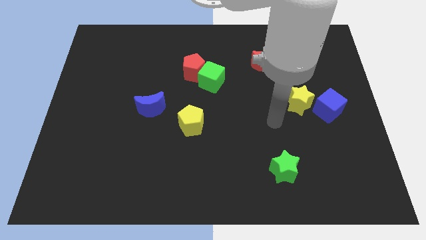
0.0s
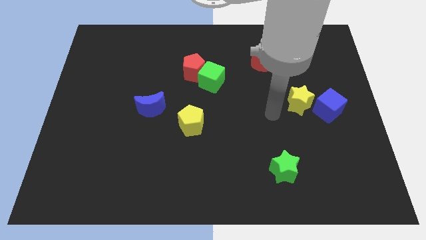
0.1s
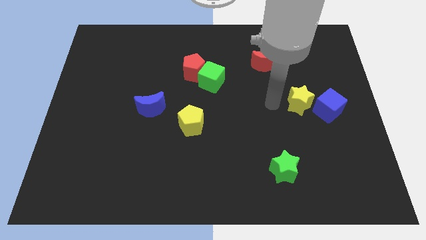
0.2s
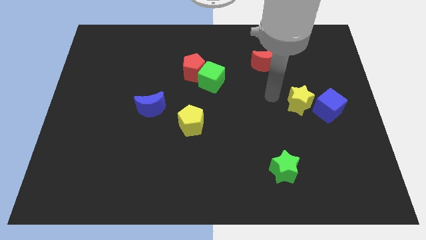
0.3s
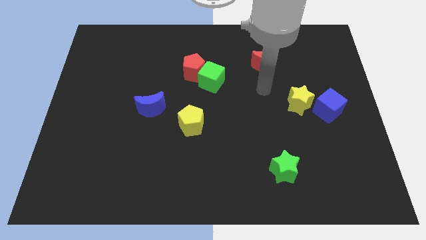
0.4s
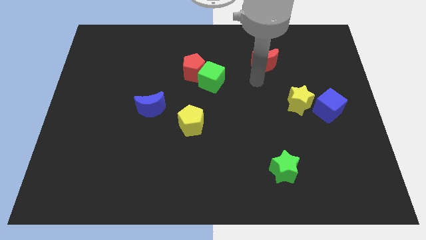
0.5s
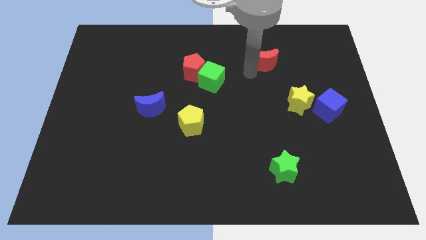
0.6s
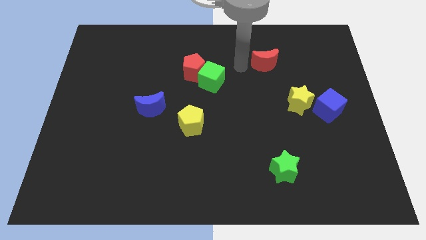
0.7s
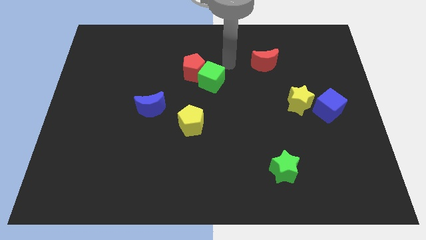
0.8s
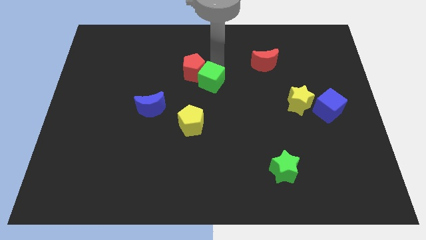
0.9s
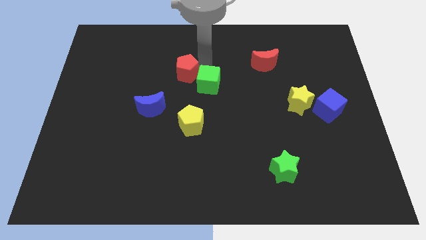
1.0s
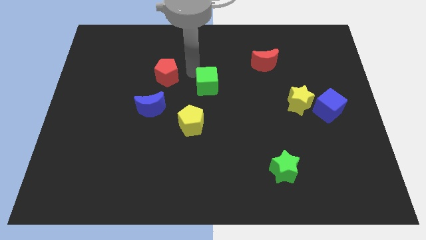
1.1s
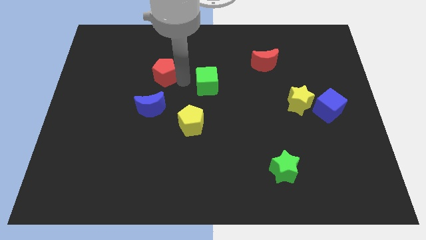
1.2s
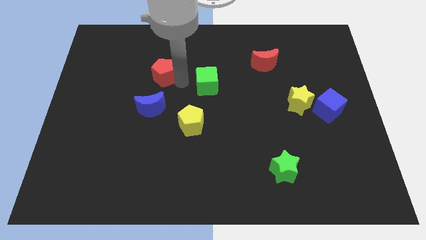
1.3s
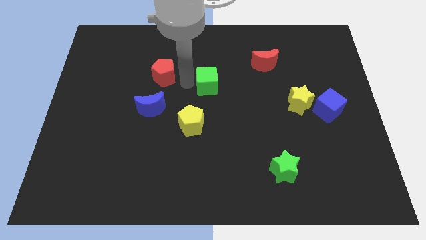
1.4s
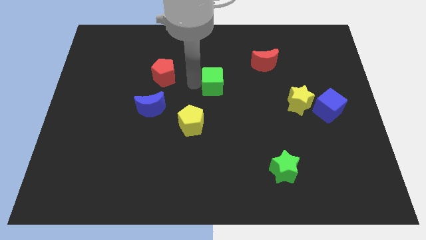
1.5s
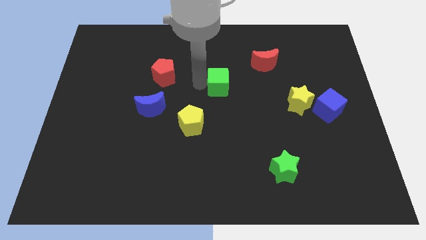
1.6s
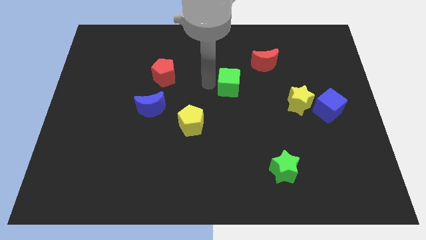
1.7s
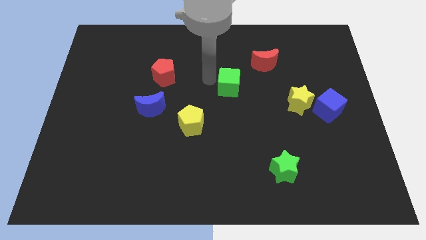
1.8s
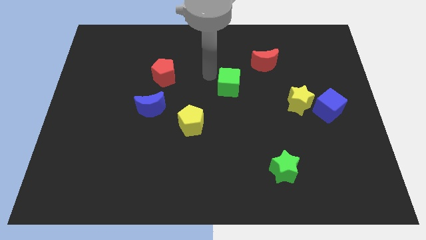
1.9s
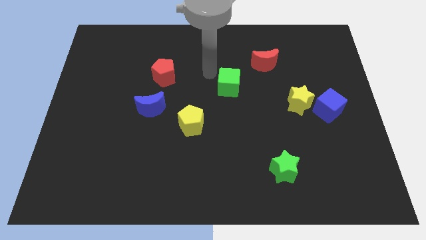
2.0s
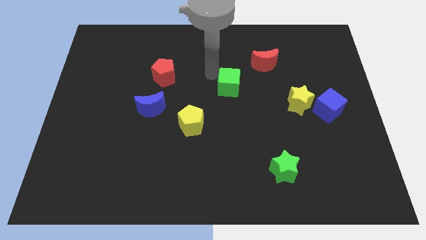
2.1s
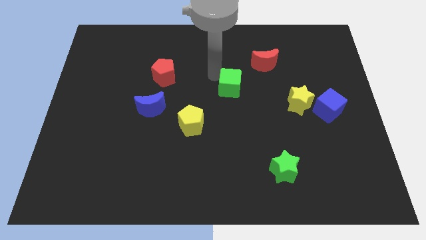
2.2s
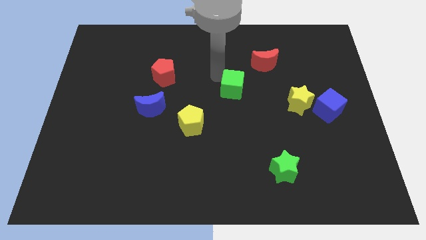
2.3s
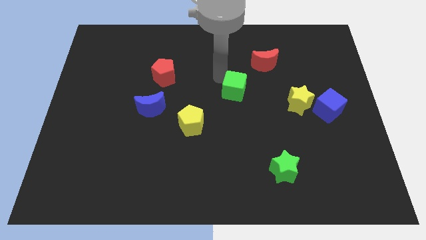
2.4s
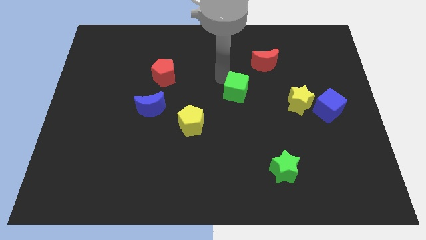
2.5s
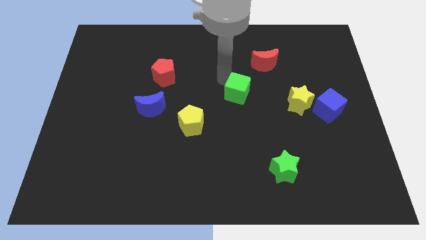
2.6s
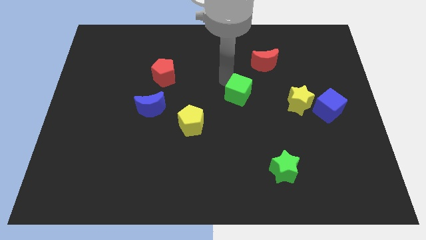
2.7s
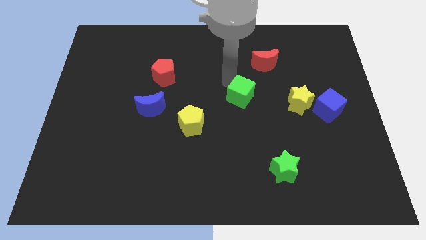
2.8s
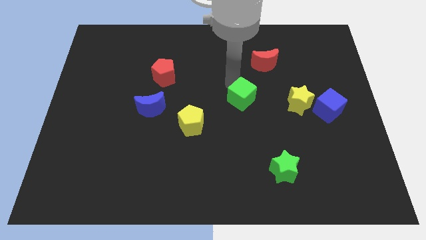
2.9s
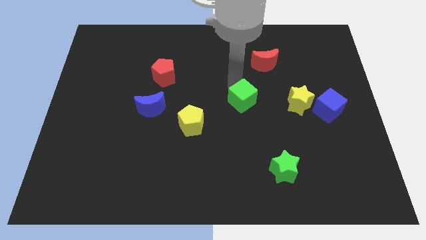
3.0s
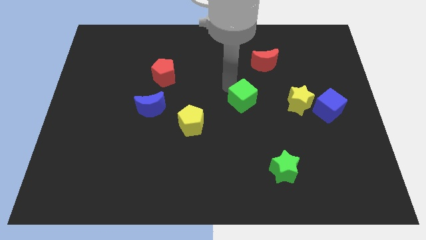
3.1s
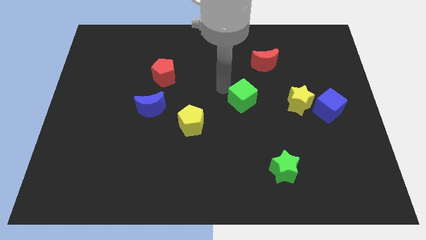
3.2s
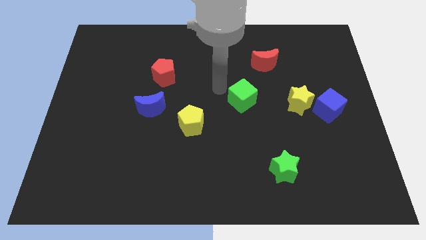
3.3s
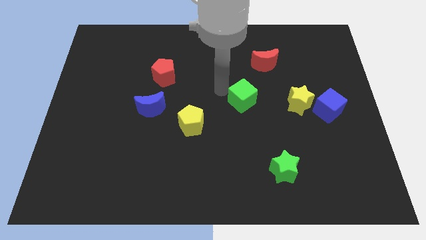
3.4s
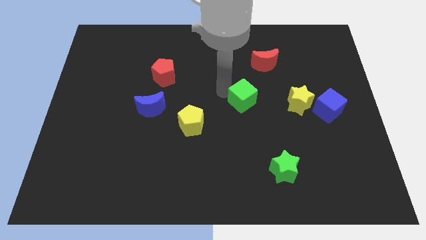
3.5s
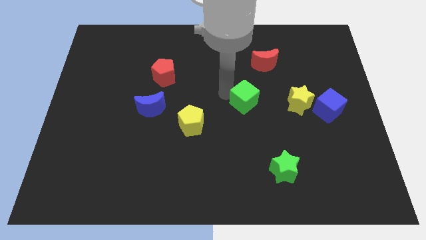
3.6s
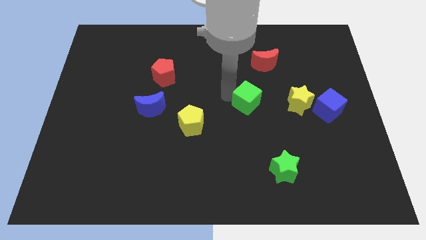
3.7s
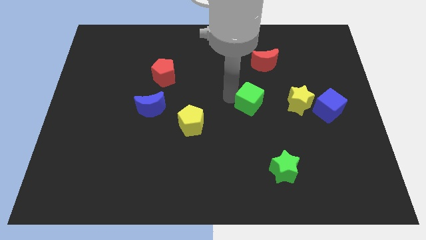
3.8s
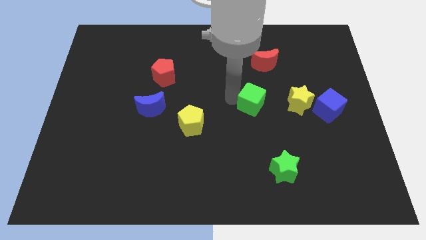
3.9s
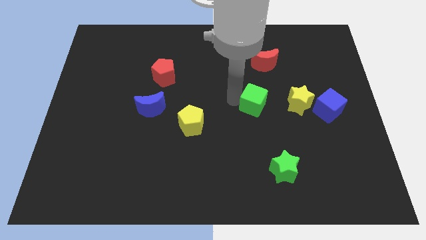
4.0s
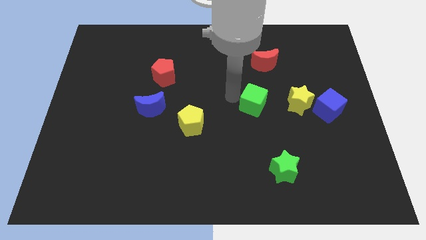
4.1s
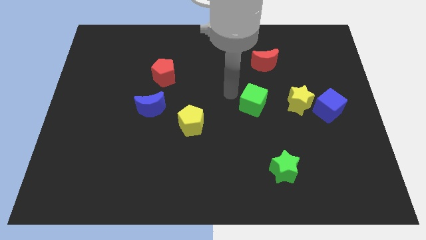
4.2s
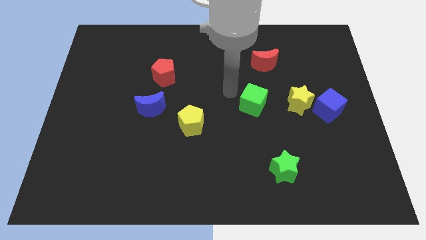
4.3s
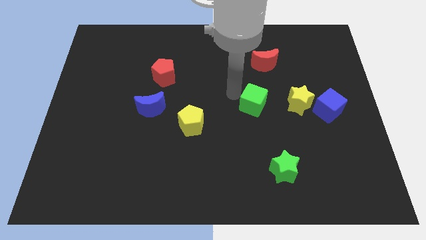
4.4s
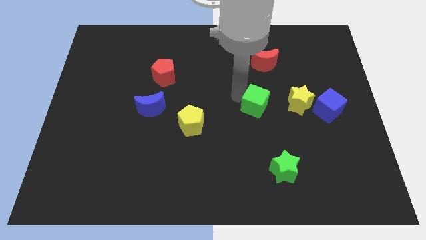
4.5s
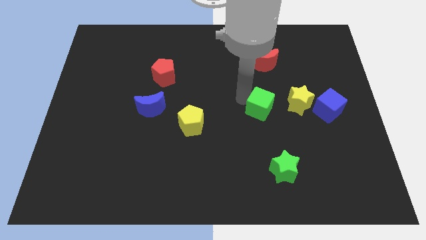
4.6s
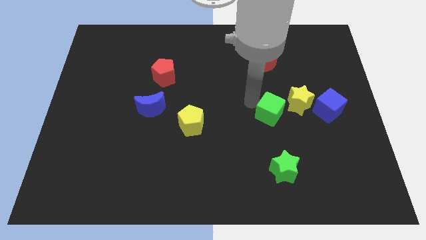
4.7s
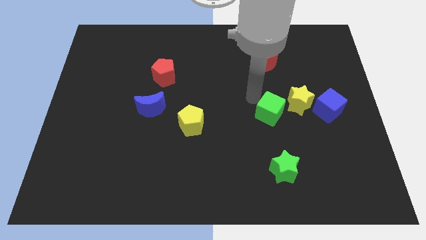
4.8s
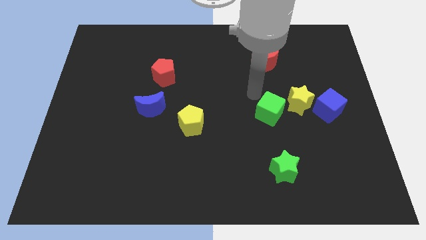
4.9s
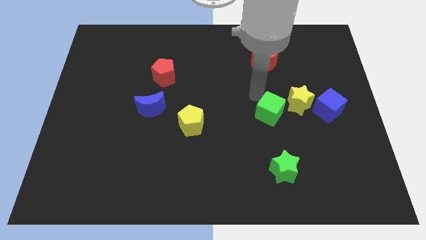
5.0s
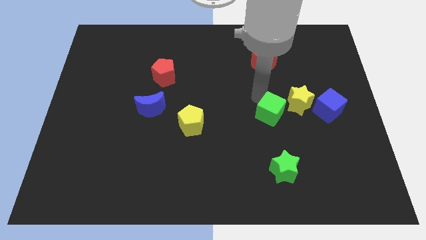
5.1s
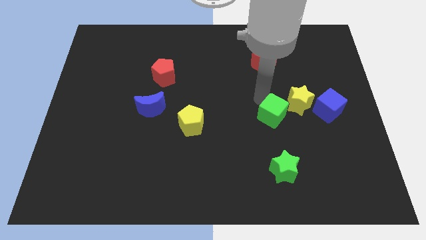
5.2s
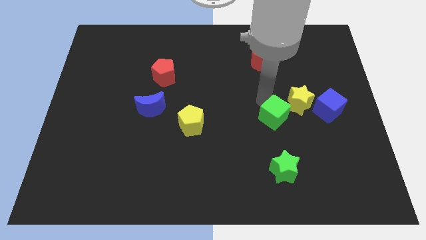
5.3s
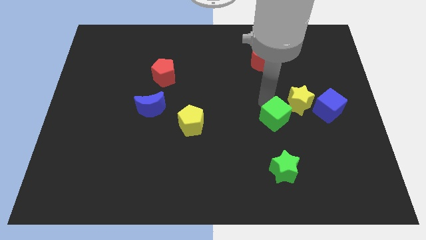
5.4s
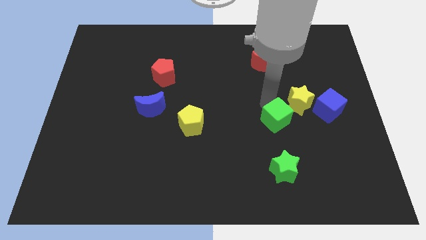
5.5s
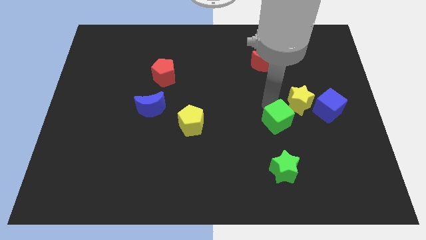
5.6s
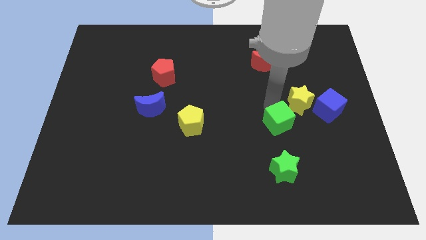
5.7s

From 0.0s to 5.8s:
push the green cube down and then right

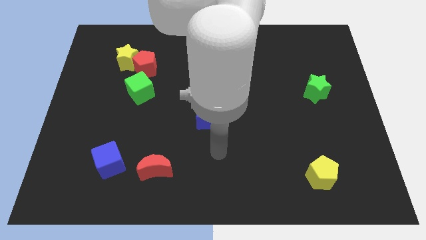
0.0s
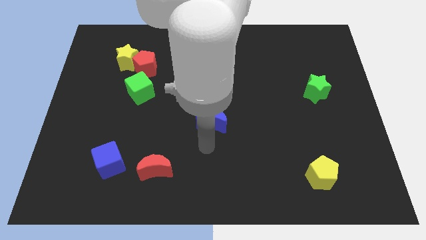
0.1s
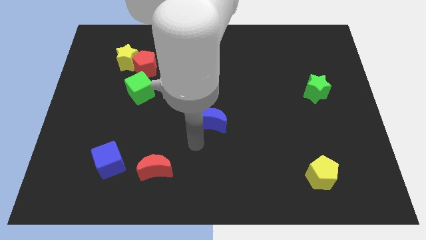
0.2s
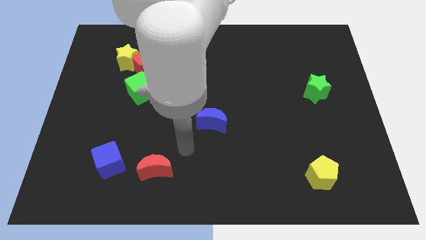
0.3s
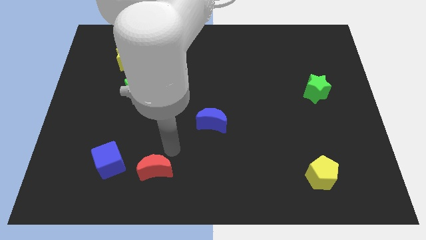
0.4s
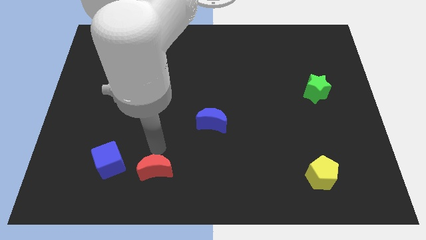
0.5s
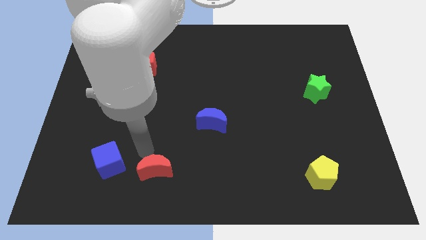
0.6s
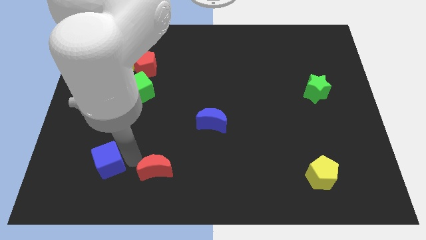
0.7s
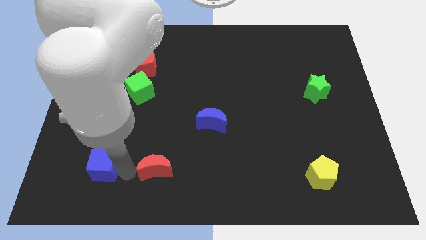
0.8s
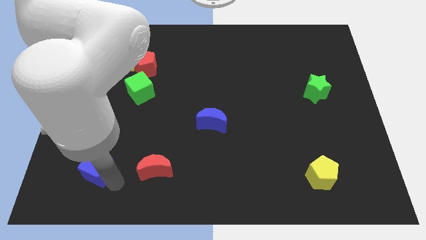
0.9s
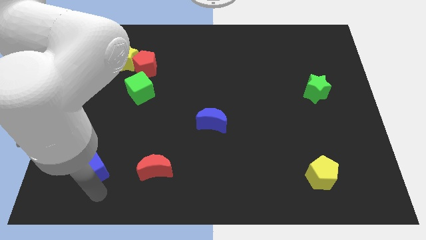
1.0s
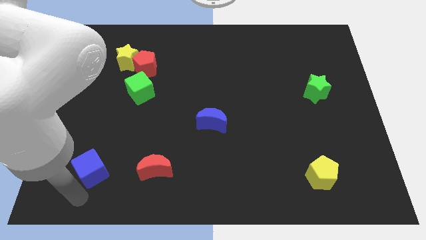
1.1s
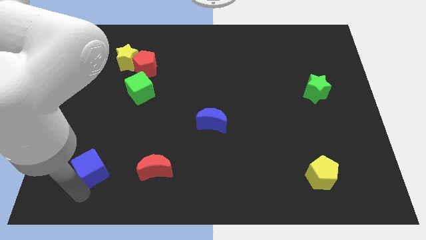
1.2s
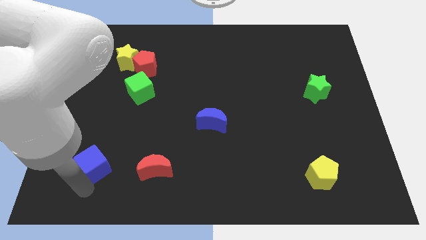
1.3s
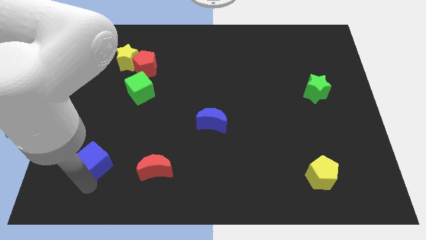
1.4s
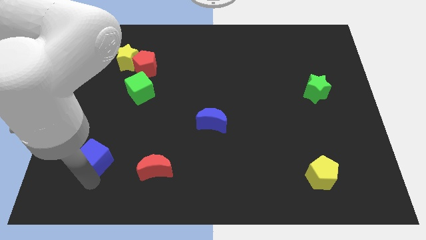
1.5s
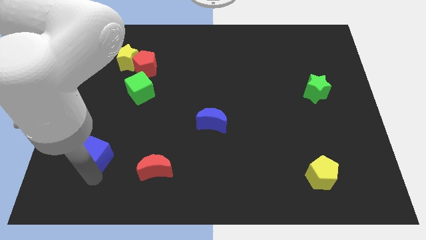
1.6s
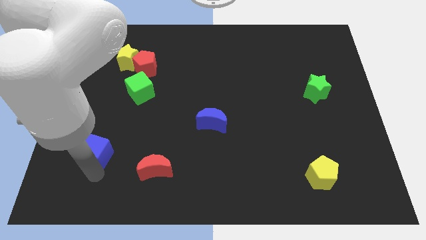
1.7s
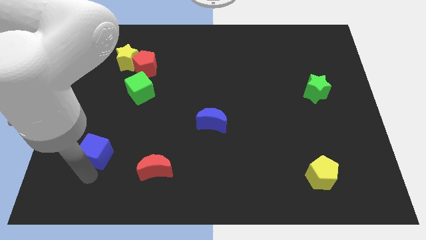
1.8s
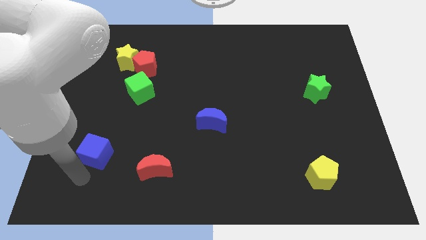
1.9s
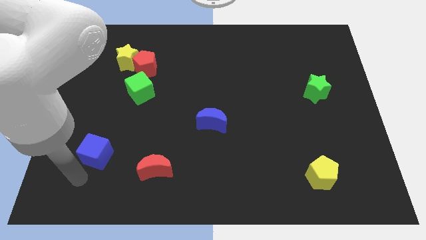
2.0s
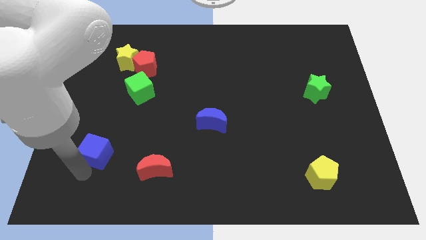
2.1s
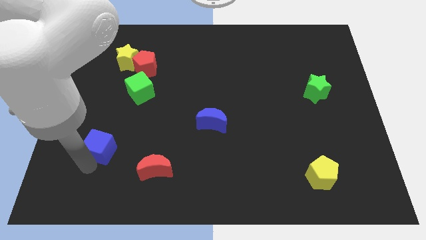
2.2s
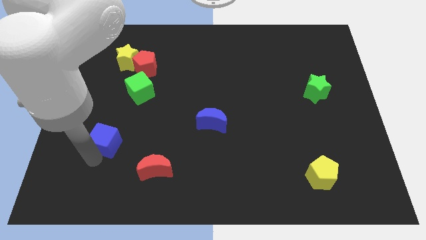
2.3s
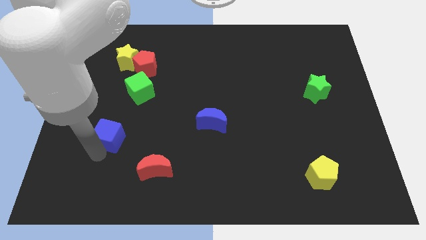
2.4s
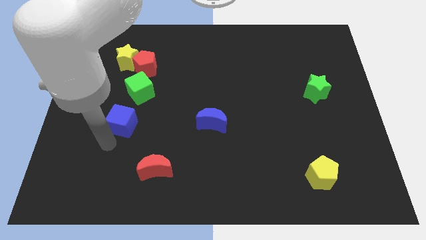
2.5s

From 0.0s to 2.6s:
push the blue cube slightly up
